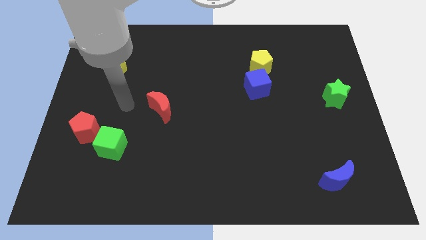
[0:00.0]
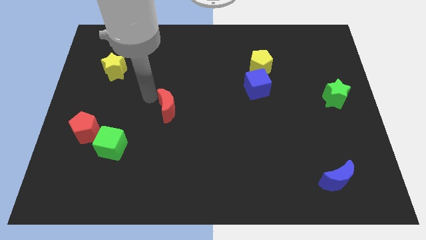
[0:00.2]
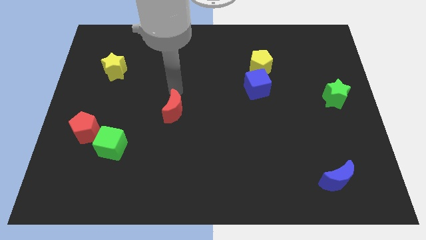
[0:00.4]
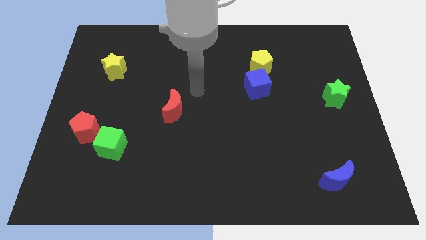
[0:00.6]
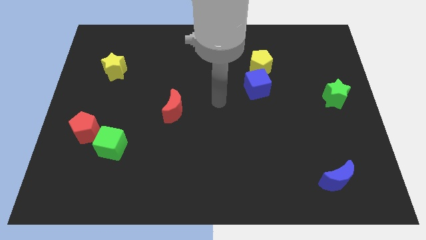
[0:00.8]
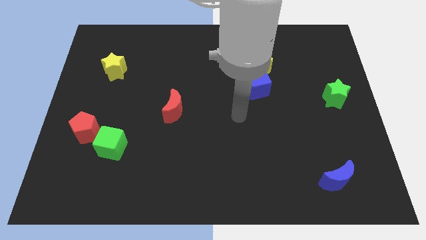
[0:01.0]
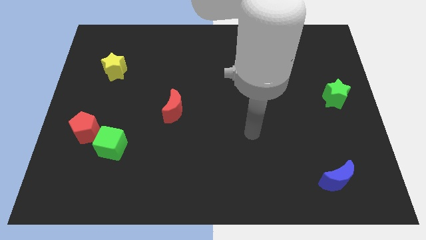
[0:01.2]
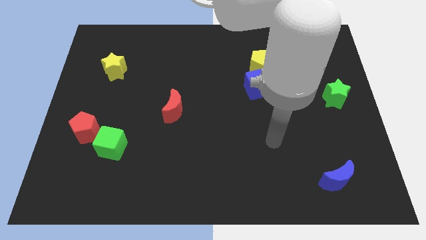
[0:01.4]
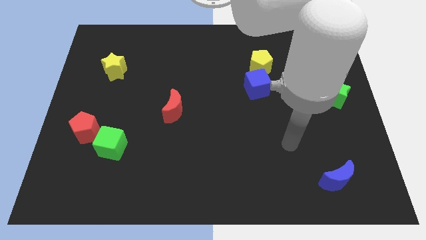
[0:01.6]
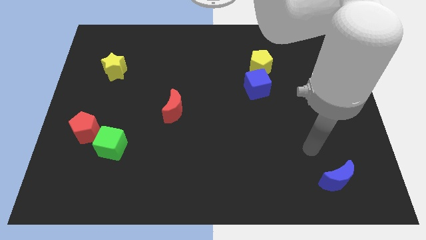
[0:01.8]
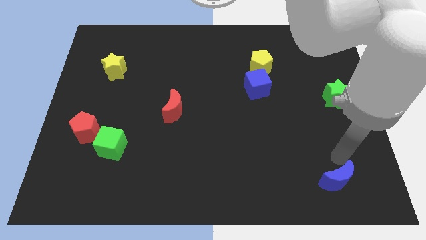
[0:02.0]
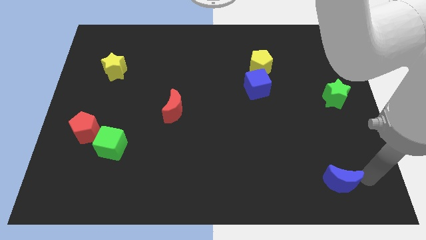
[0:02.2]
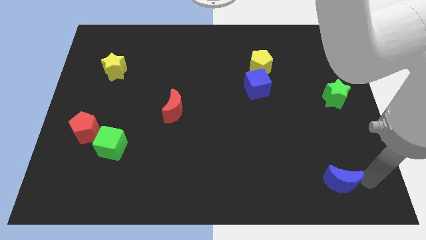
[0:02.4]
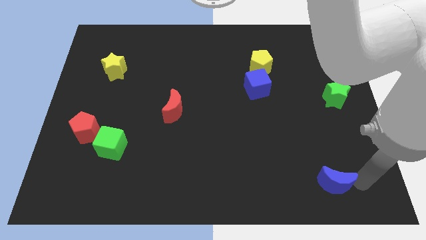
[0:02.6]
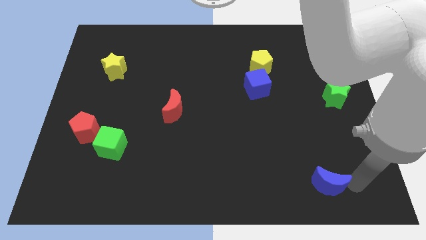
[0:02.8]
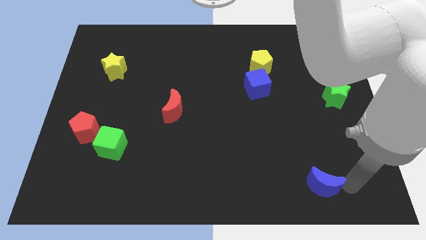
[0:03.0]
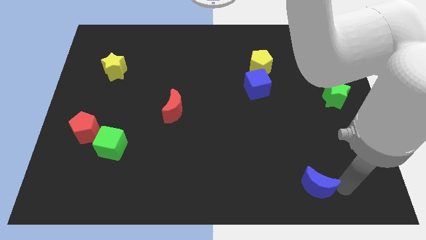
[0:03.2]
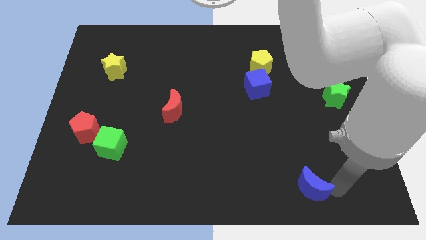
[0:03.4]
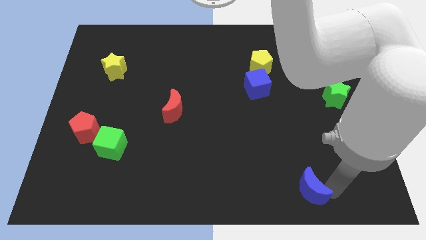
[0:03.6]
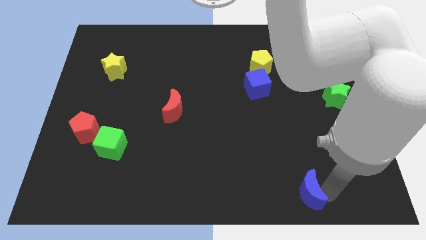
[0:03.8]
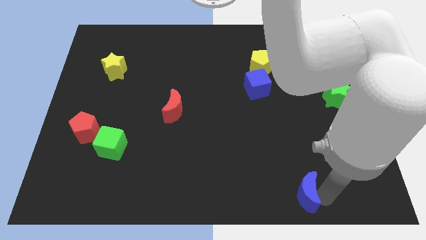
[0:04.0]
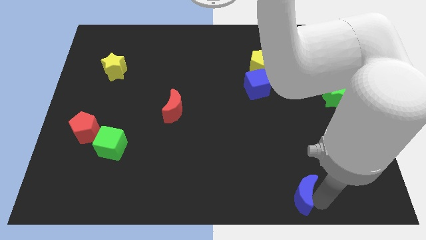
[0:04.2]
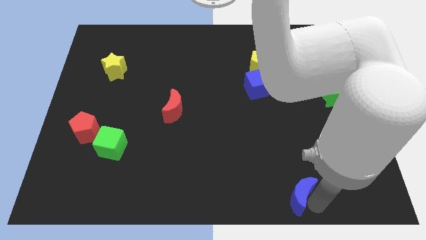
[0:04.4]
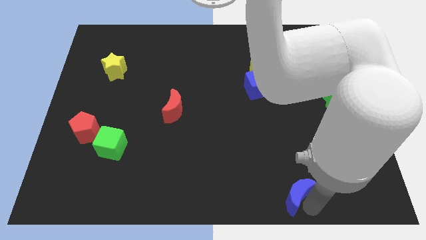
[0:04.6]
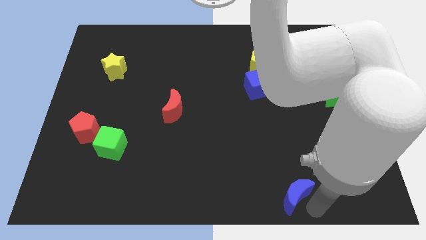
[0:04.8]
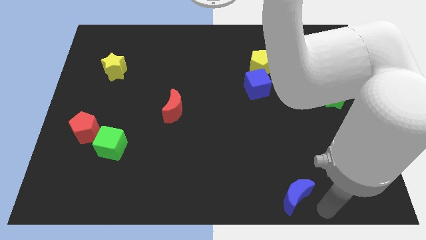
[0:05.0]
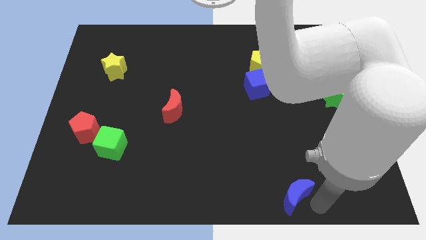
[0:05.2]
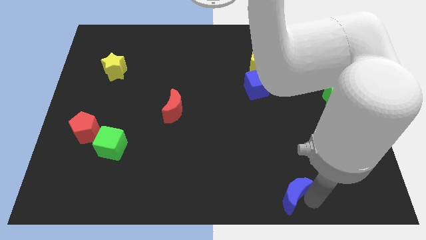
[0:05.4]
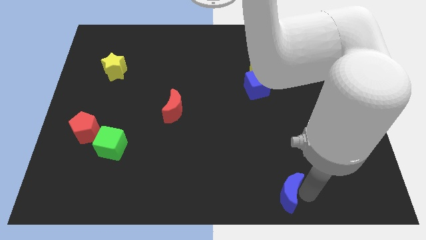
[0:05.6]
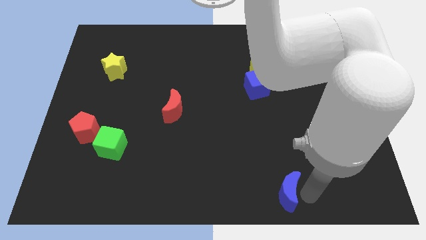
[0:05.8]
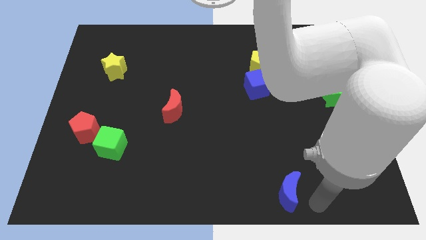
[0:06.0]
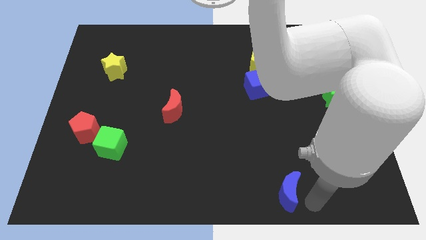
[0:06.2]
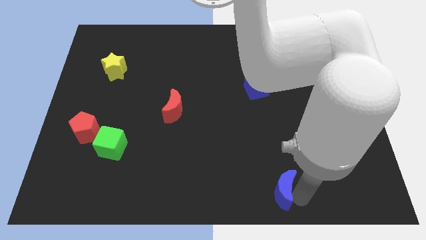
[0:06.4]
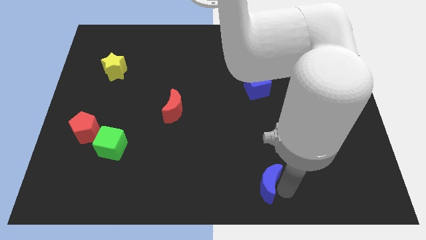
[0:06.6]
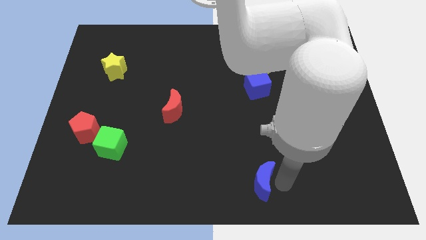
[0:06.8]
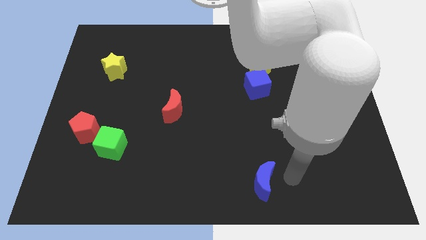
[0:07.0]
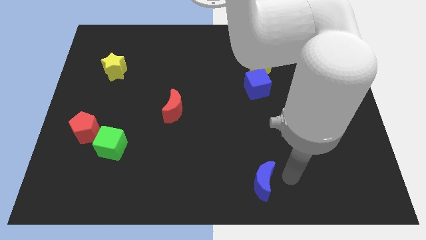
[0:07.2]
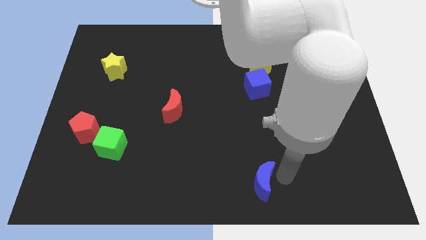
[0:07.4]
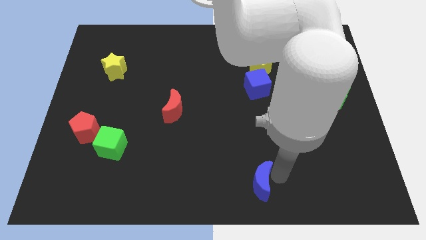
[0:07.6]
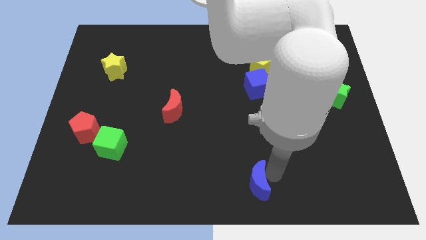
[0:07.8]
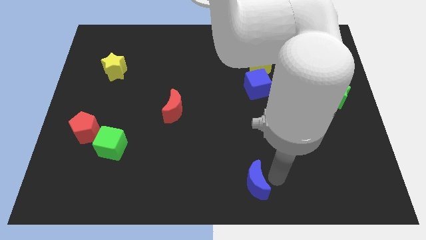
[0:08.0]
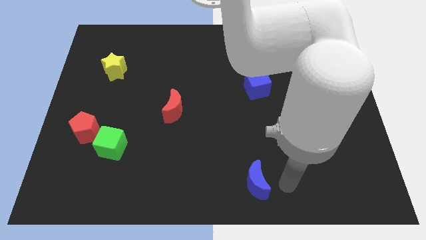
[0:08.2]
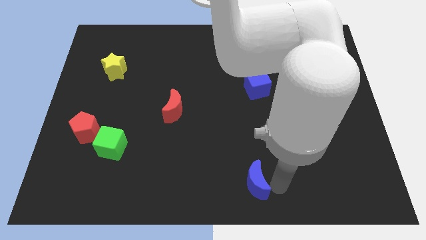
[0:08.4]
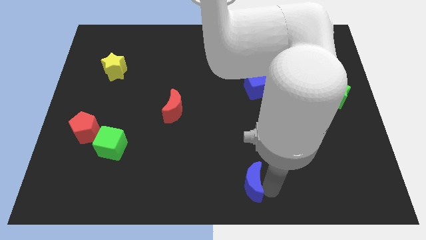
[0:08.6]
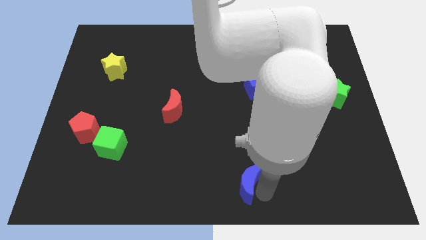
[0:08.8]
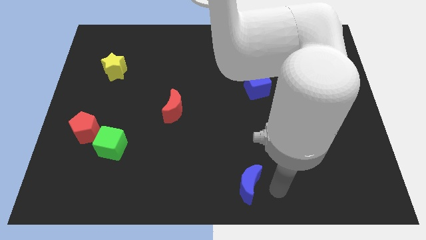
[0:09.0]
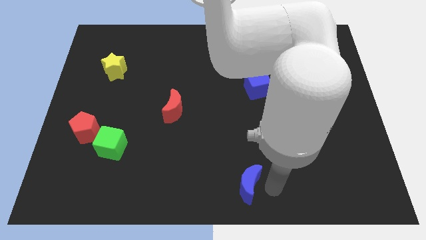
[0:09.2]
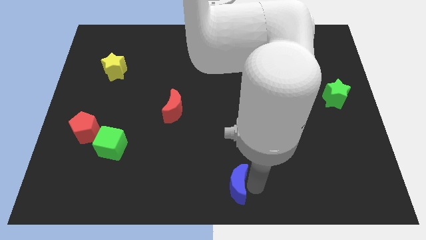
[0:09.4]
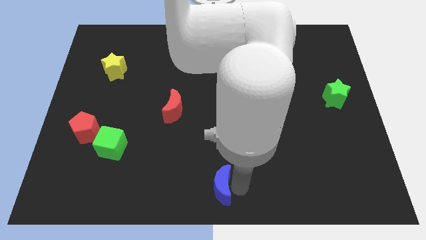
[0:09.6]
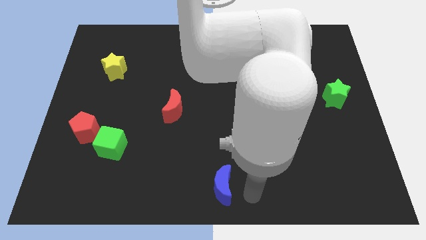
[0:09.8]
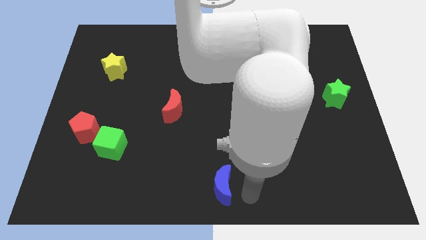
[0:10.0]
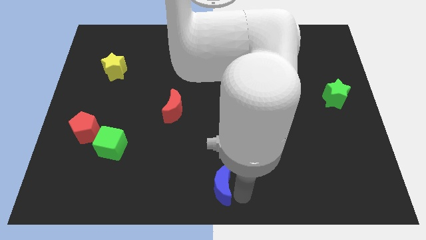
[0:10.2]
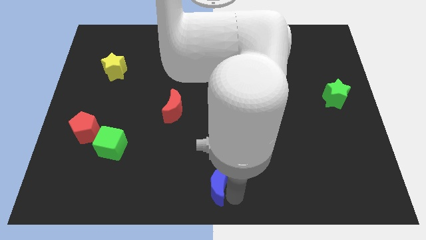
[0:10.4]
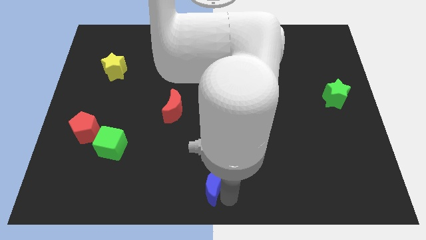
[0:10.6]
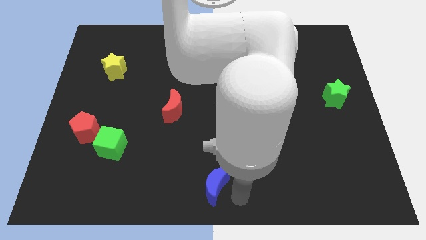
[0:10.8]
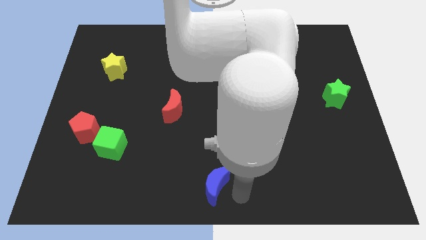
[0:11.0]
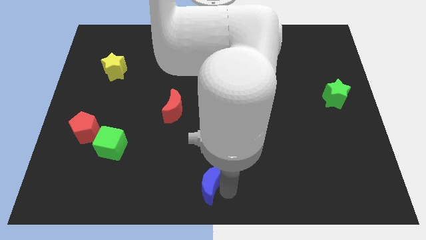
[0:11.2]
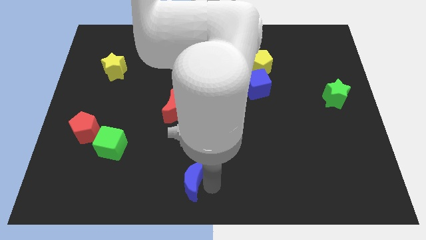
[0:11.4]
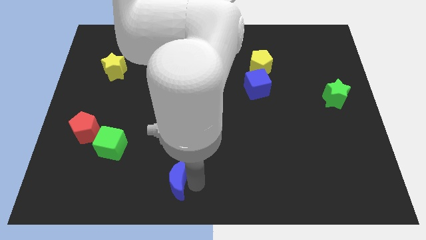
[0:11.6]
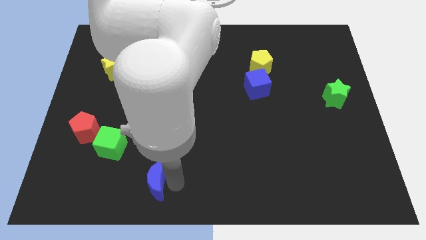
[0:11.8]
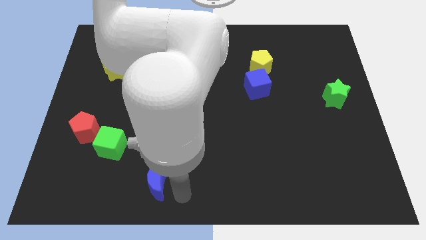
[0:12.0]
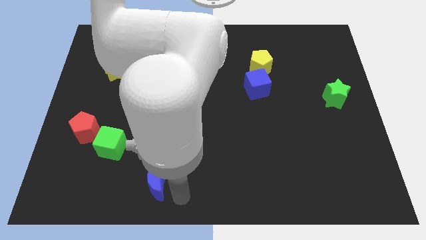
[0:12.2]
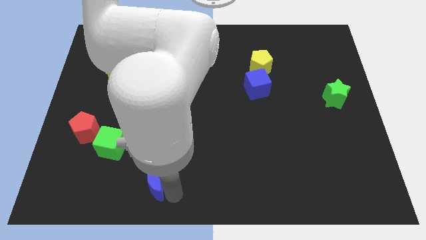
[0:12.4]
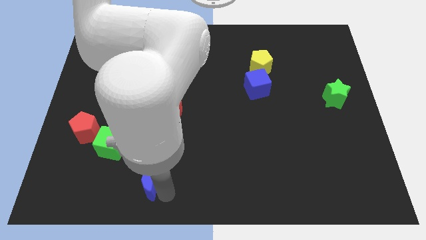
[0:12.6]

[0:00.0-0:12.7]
slide the blue moon diagonally down and to the right of the green cube
